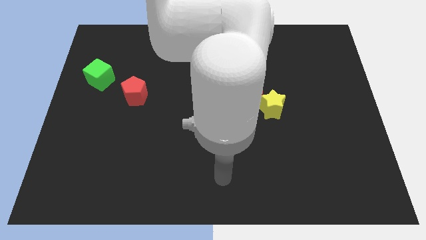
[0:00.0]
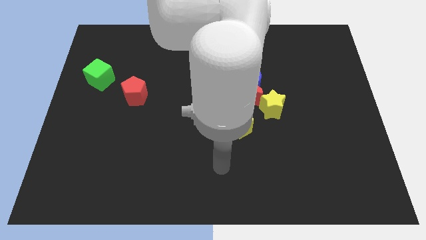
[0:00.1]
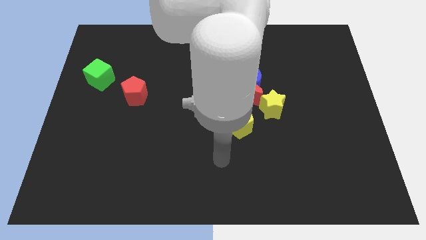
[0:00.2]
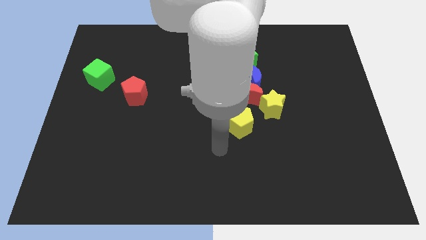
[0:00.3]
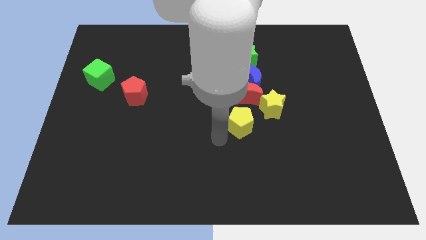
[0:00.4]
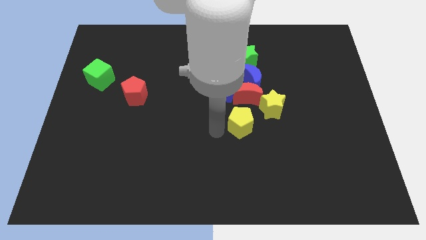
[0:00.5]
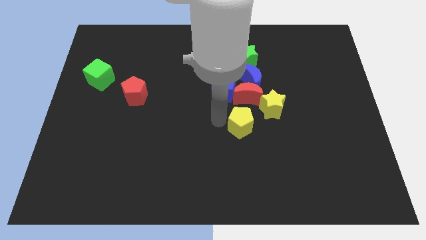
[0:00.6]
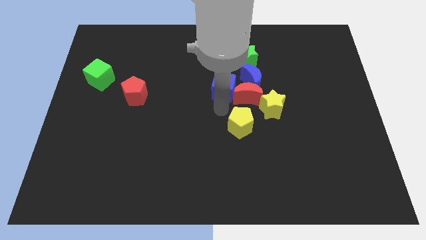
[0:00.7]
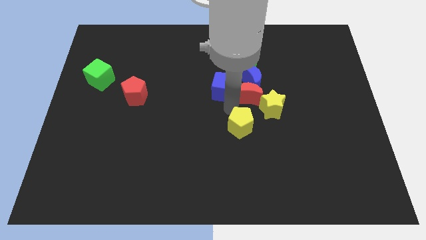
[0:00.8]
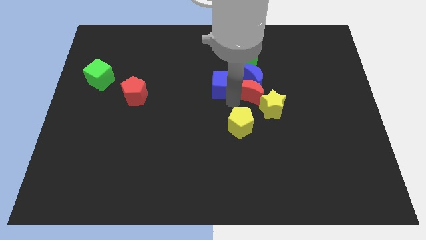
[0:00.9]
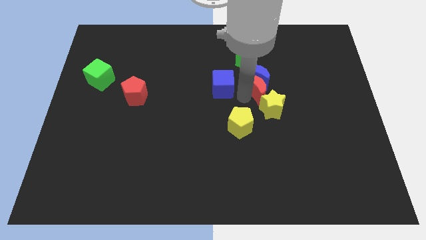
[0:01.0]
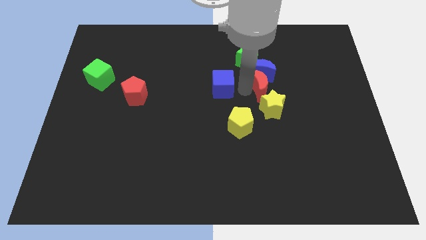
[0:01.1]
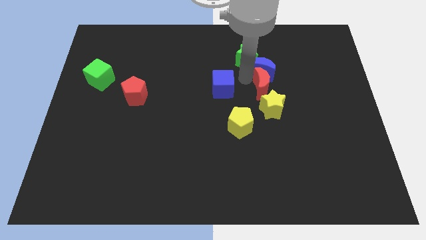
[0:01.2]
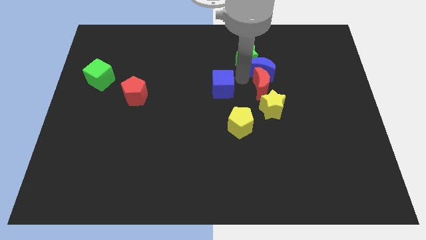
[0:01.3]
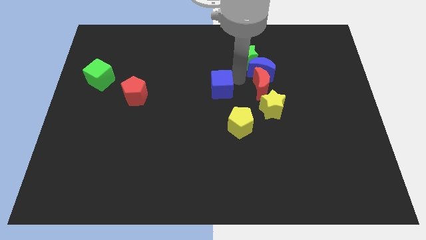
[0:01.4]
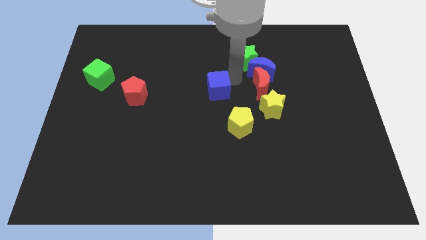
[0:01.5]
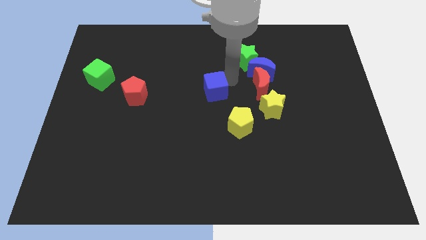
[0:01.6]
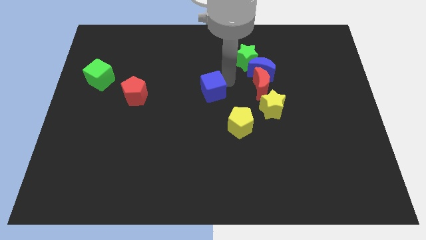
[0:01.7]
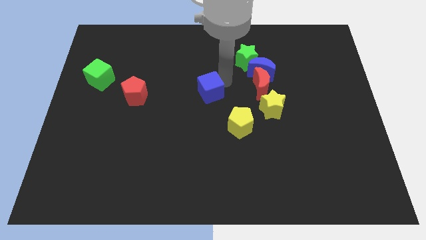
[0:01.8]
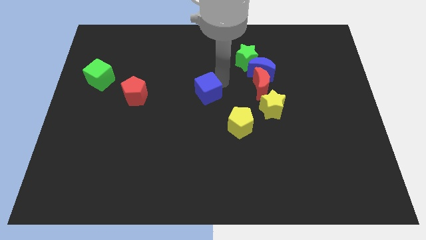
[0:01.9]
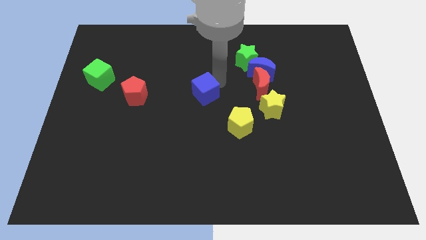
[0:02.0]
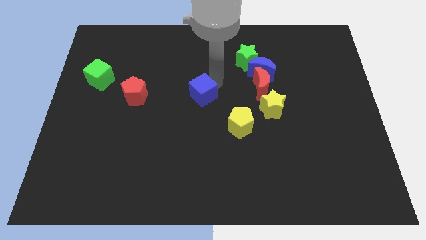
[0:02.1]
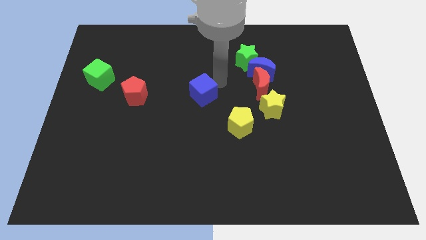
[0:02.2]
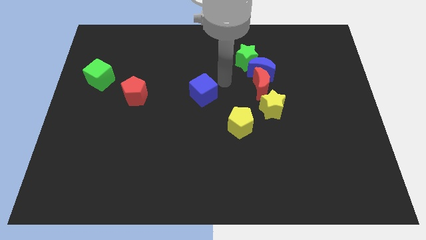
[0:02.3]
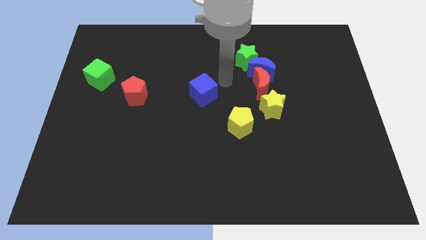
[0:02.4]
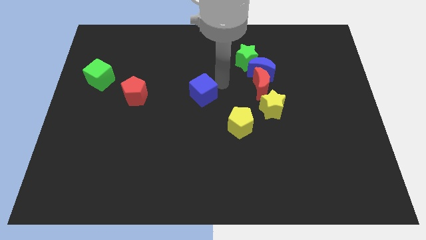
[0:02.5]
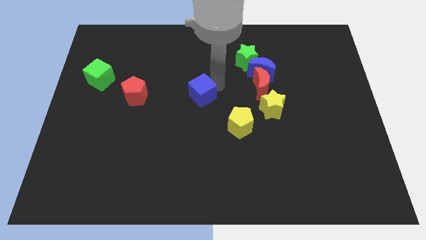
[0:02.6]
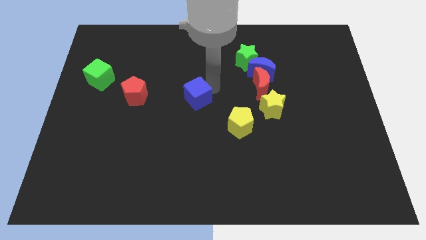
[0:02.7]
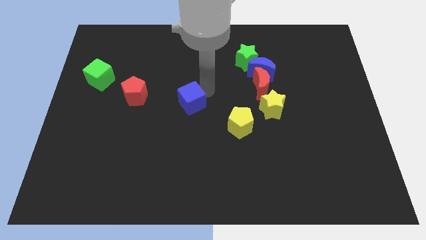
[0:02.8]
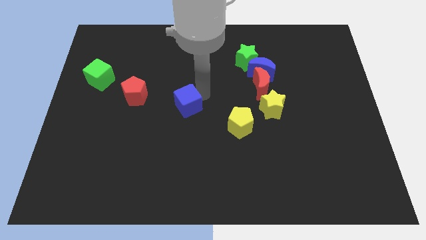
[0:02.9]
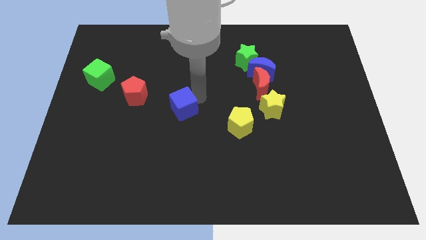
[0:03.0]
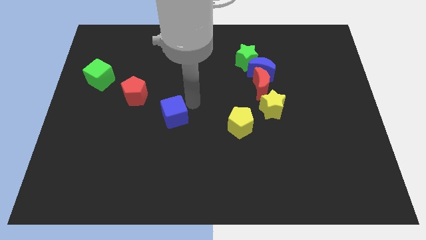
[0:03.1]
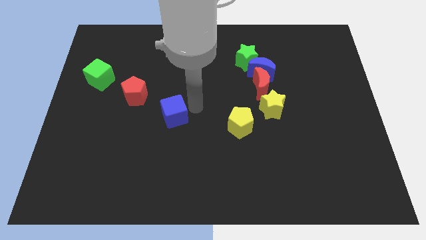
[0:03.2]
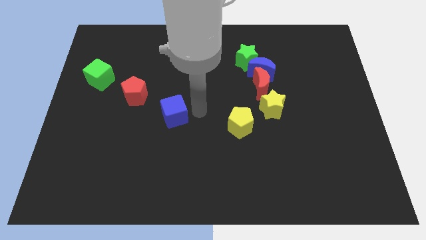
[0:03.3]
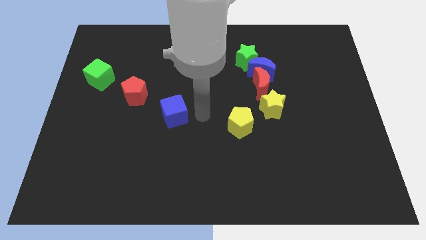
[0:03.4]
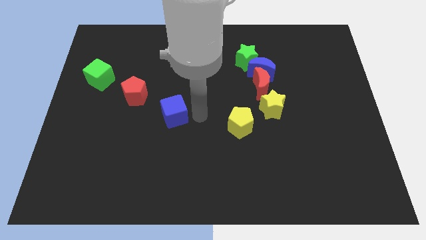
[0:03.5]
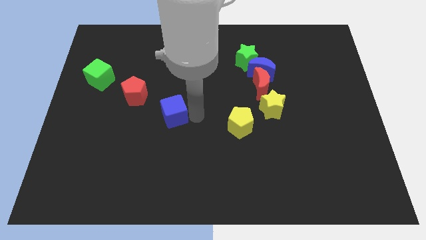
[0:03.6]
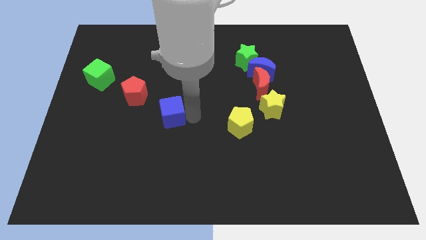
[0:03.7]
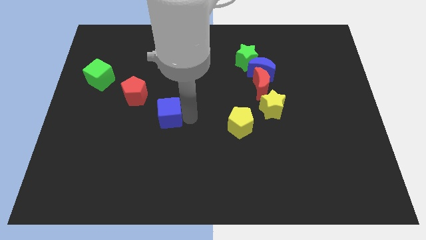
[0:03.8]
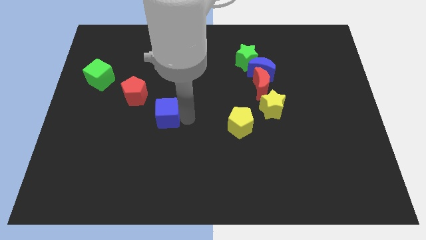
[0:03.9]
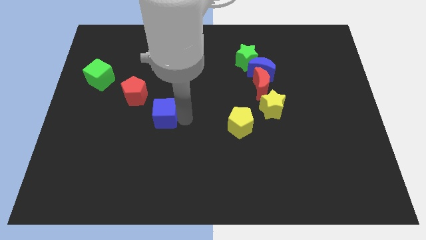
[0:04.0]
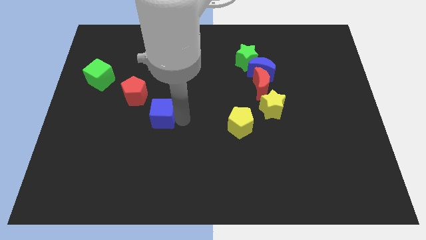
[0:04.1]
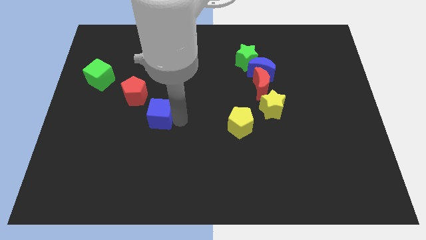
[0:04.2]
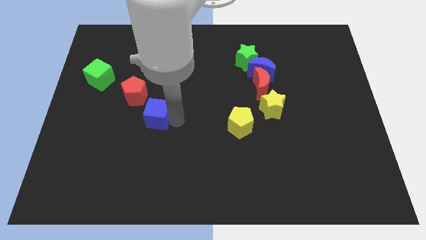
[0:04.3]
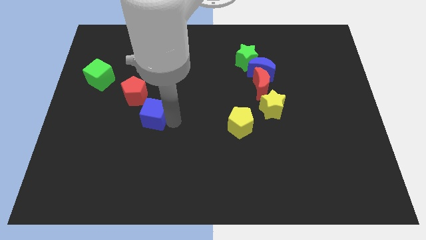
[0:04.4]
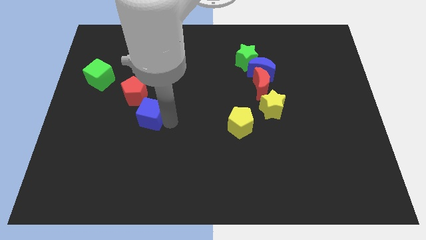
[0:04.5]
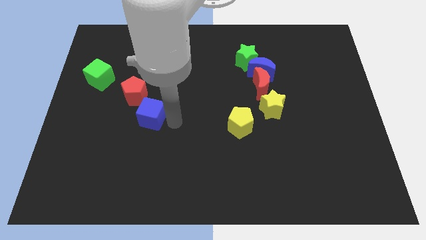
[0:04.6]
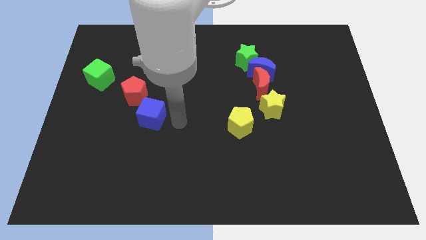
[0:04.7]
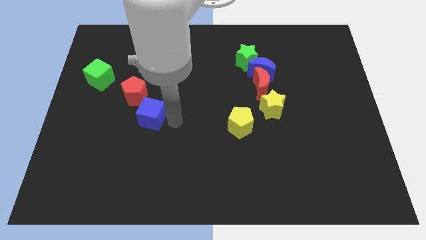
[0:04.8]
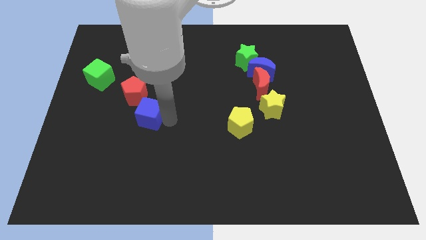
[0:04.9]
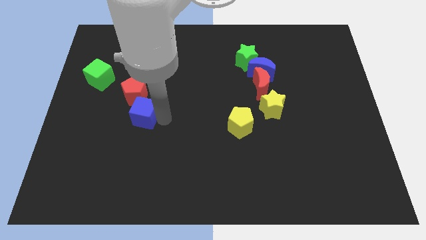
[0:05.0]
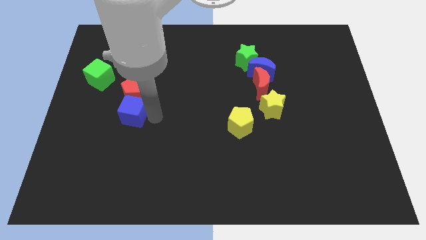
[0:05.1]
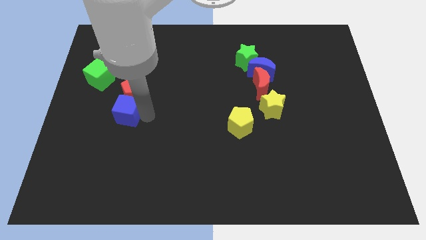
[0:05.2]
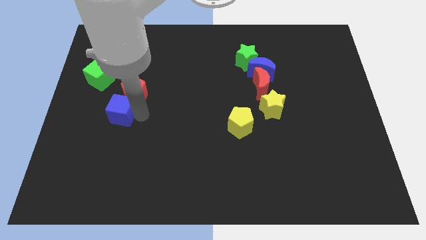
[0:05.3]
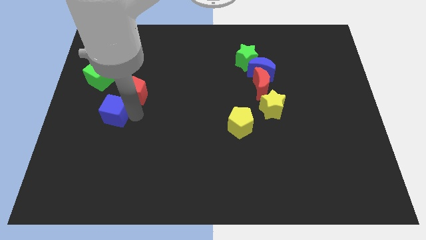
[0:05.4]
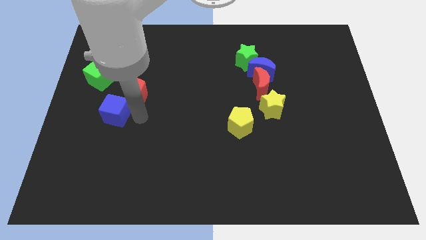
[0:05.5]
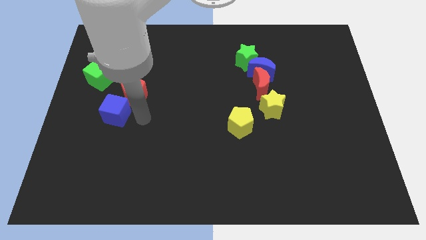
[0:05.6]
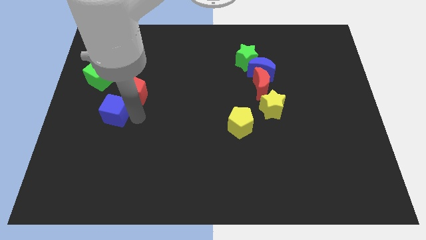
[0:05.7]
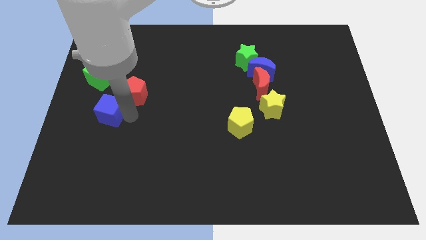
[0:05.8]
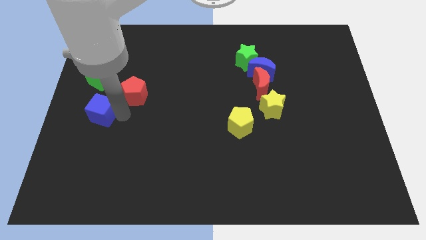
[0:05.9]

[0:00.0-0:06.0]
move the blue cube to the center left

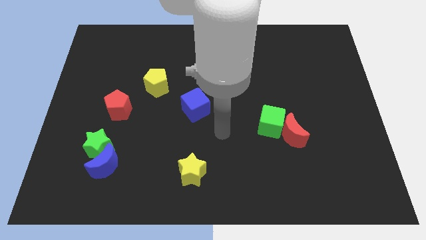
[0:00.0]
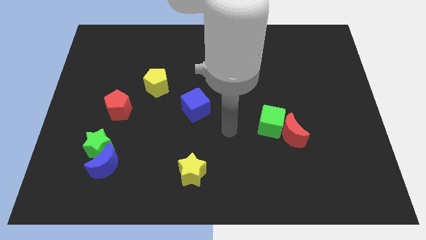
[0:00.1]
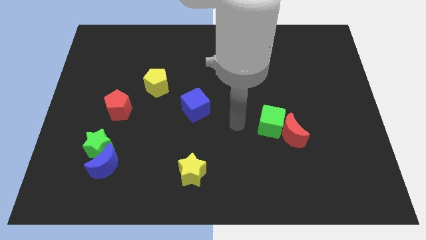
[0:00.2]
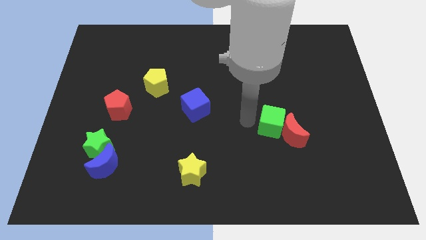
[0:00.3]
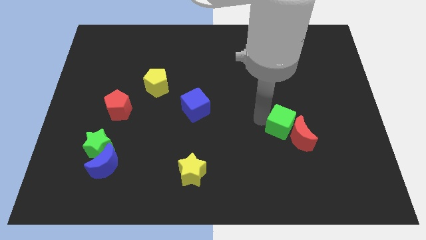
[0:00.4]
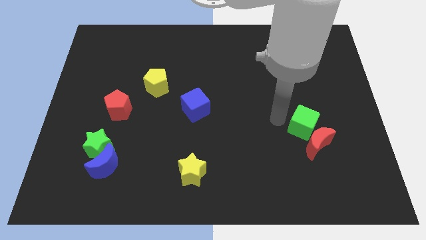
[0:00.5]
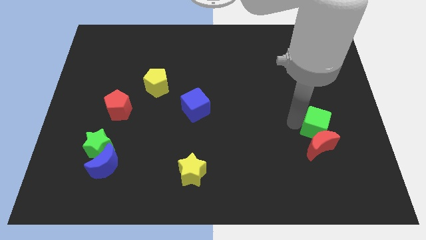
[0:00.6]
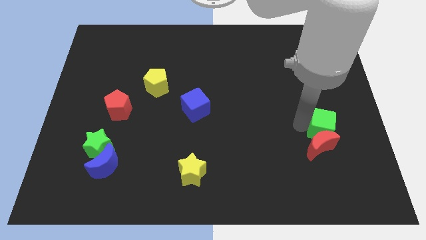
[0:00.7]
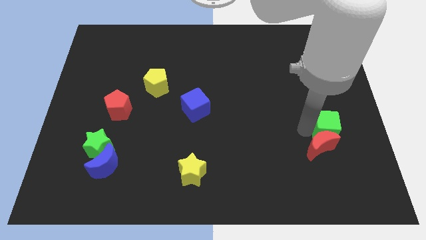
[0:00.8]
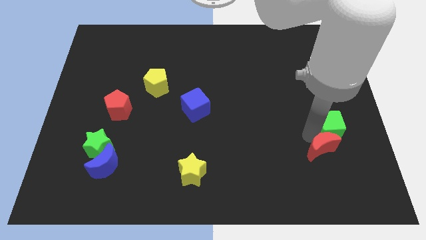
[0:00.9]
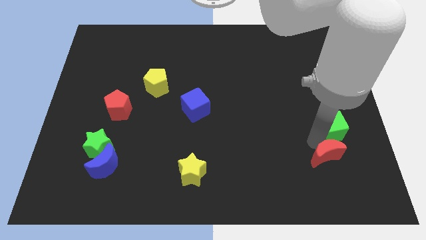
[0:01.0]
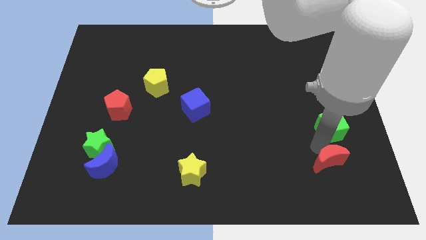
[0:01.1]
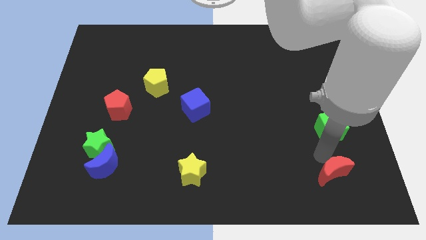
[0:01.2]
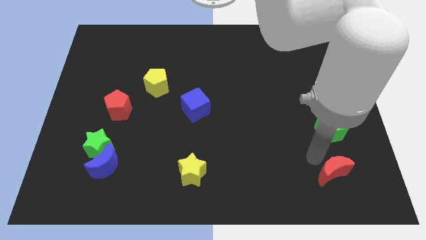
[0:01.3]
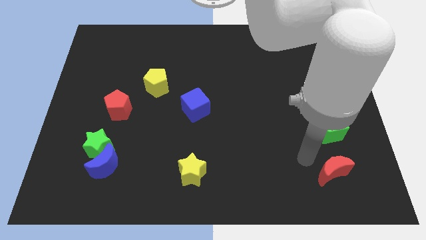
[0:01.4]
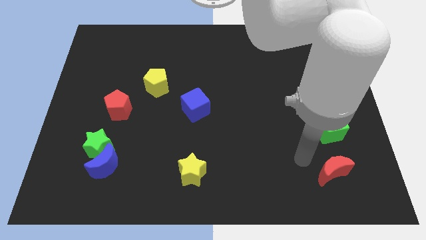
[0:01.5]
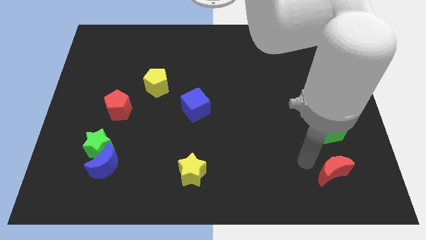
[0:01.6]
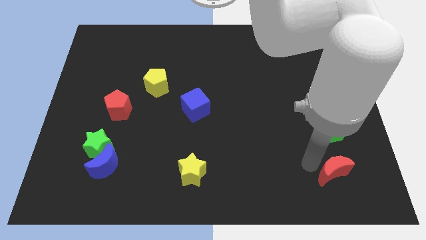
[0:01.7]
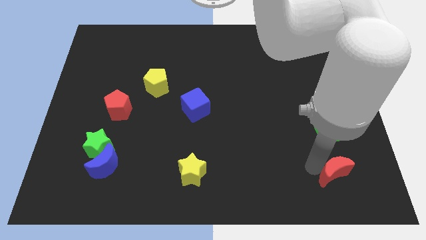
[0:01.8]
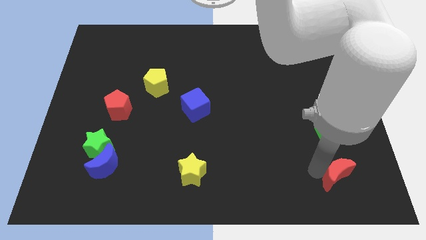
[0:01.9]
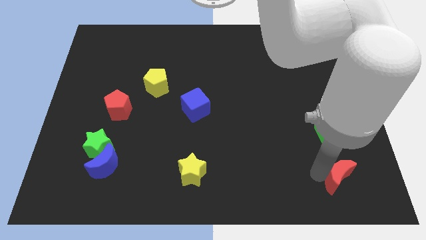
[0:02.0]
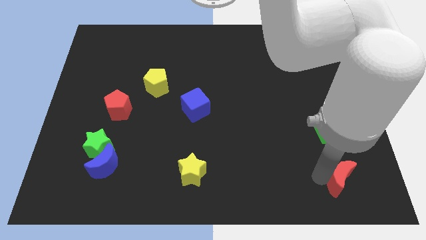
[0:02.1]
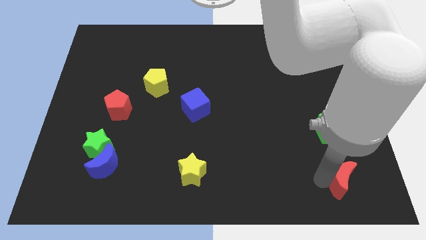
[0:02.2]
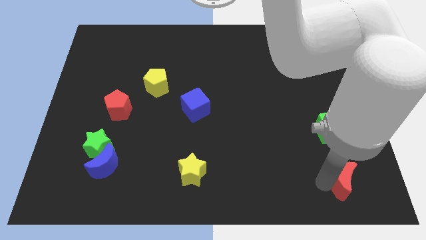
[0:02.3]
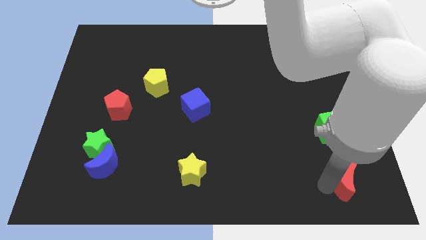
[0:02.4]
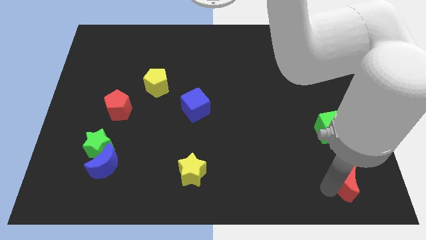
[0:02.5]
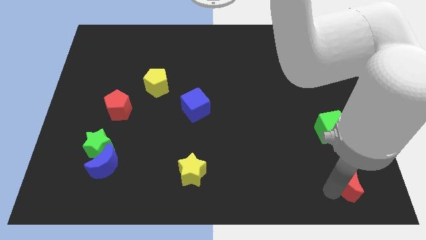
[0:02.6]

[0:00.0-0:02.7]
slide the red moon to the bottom right corner
